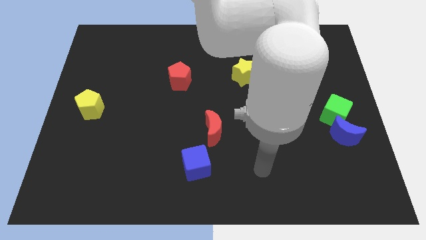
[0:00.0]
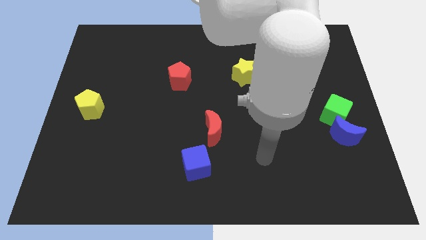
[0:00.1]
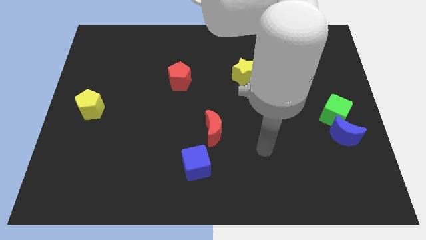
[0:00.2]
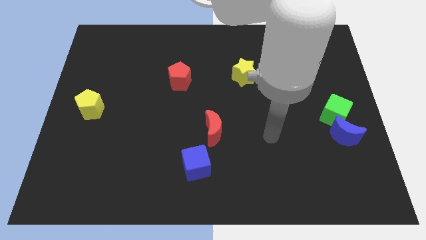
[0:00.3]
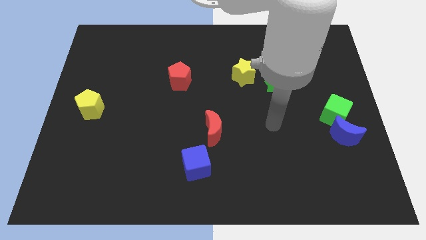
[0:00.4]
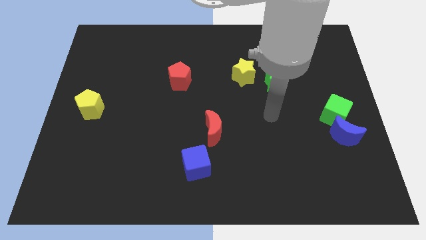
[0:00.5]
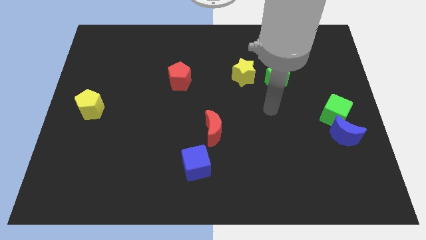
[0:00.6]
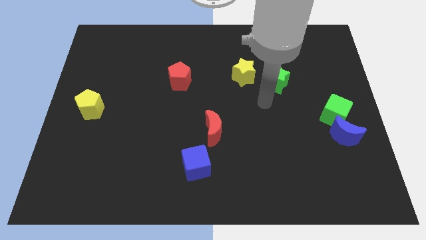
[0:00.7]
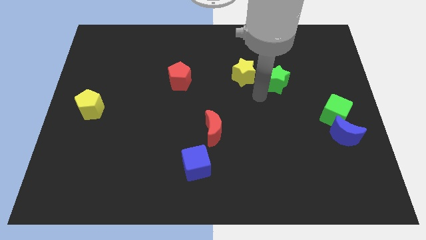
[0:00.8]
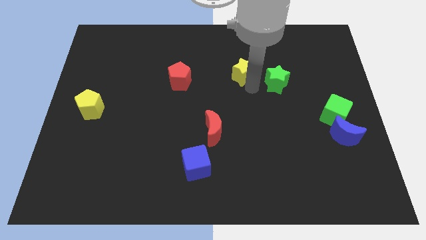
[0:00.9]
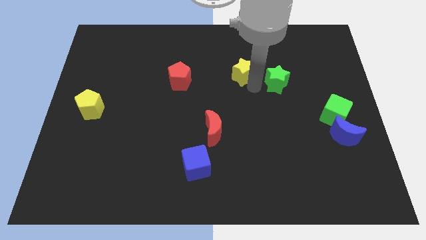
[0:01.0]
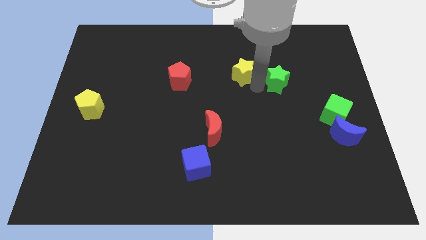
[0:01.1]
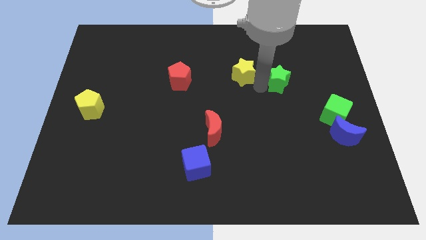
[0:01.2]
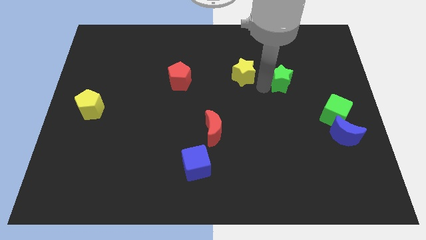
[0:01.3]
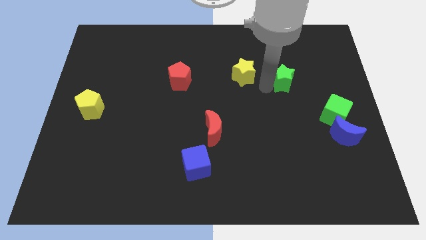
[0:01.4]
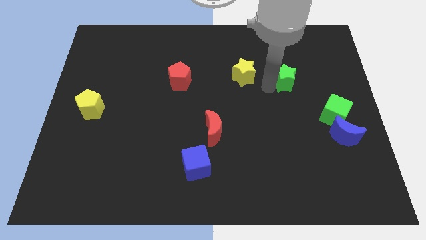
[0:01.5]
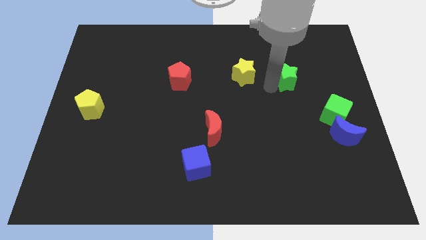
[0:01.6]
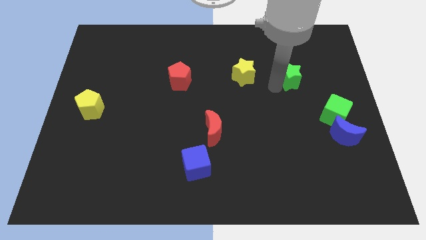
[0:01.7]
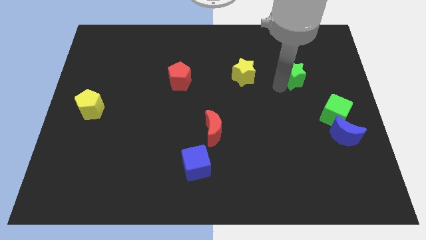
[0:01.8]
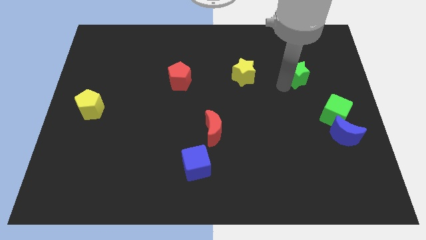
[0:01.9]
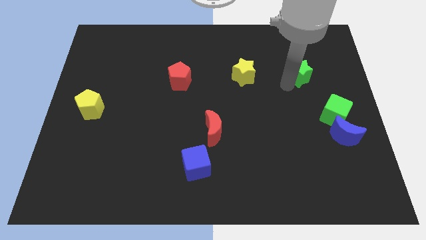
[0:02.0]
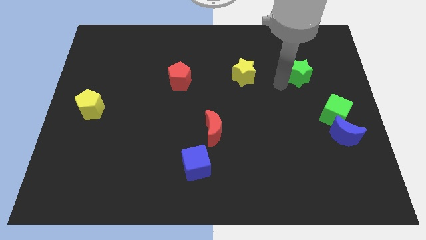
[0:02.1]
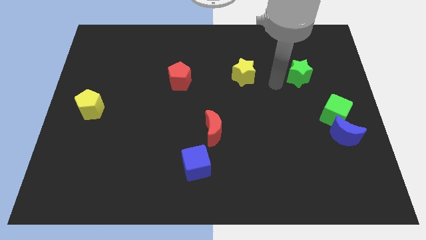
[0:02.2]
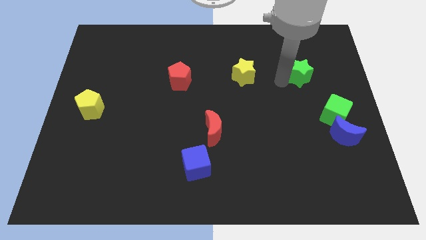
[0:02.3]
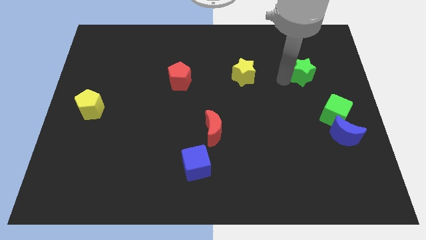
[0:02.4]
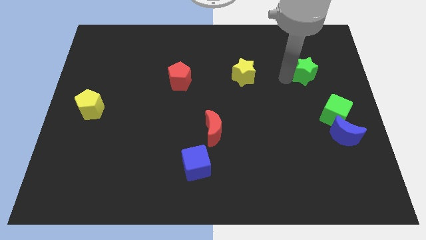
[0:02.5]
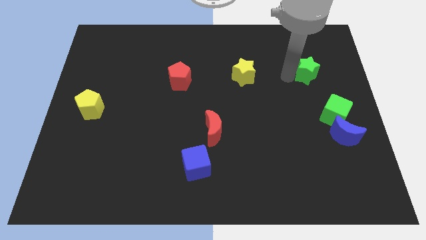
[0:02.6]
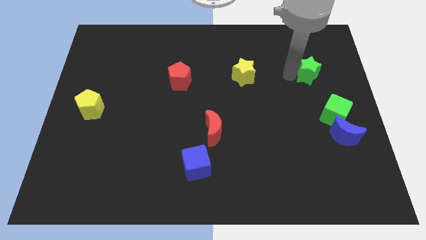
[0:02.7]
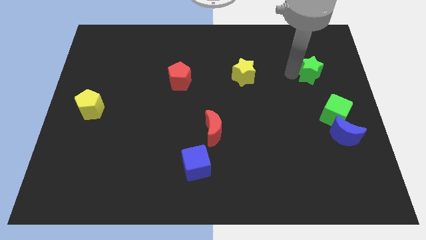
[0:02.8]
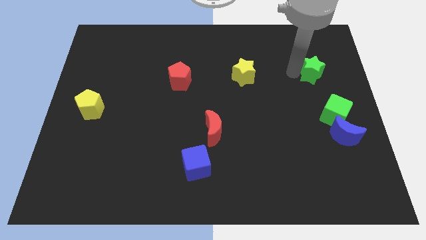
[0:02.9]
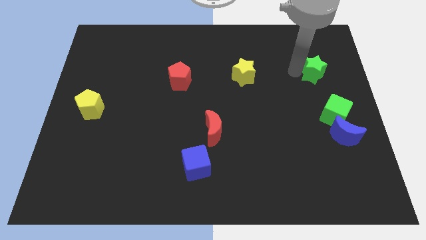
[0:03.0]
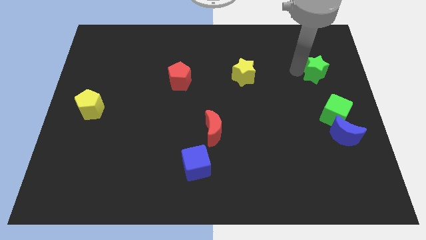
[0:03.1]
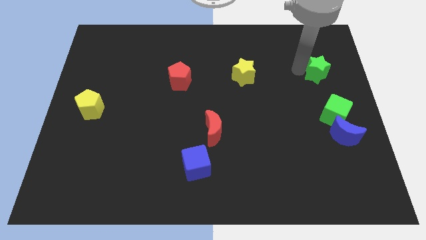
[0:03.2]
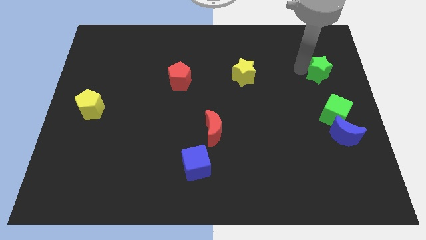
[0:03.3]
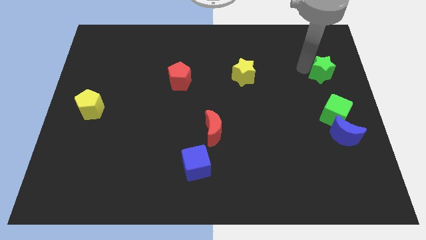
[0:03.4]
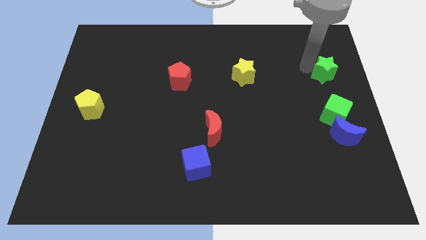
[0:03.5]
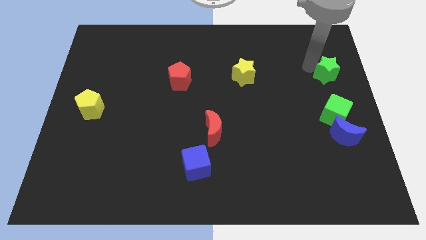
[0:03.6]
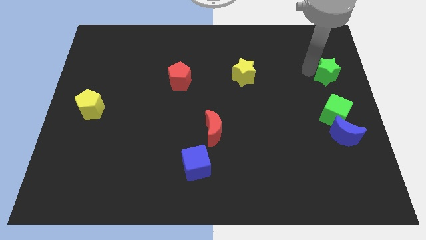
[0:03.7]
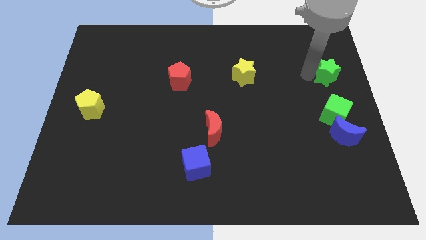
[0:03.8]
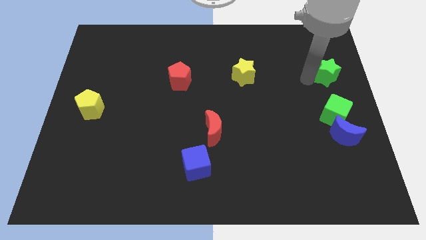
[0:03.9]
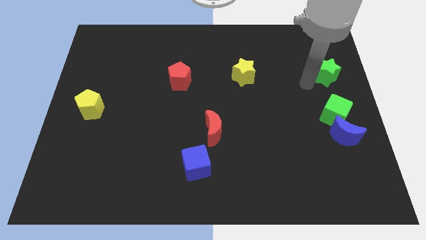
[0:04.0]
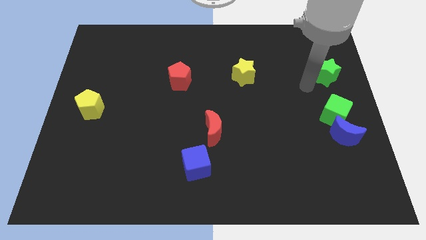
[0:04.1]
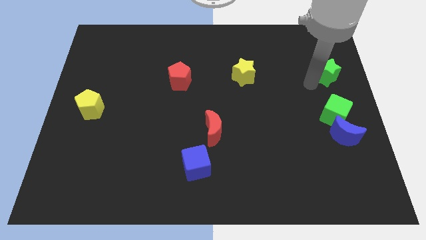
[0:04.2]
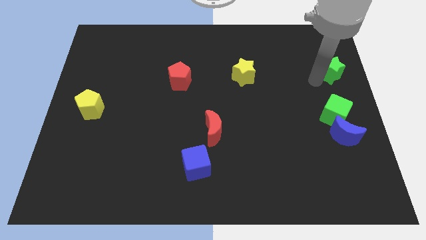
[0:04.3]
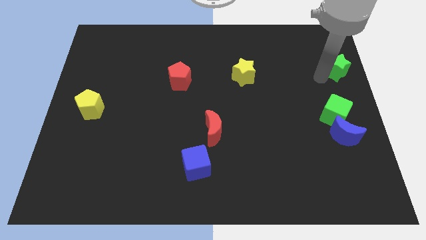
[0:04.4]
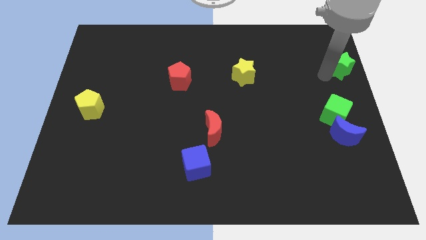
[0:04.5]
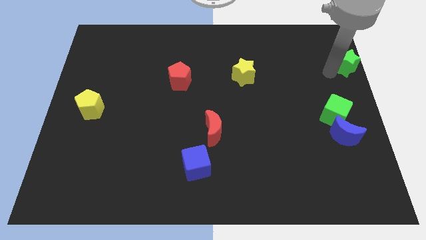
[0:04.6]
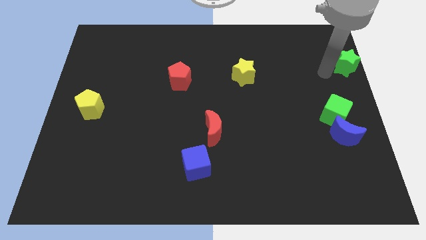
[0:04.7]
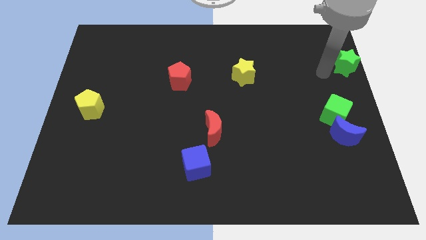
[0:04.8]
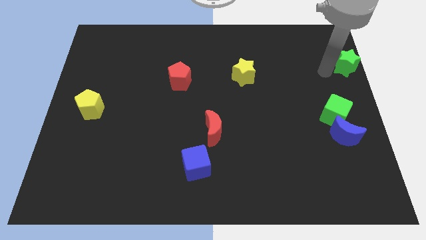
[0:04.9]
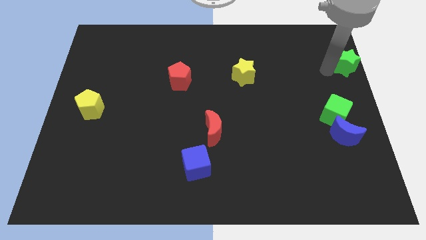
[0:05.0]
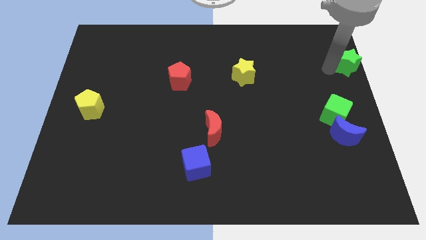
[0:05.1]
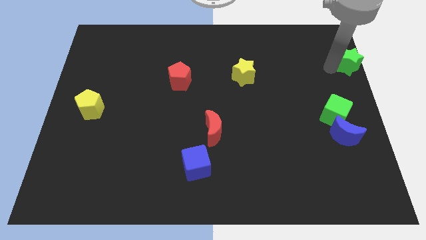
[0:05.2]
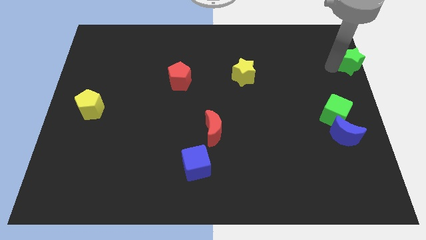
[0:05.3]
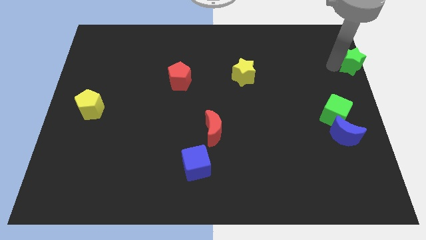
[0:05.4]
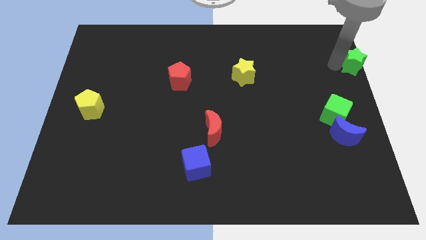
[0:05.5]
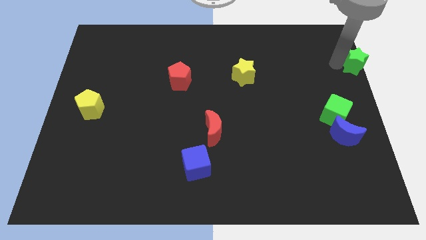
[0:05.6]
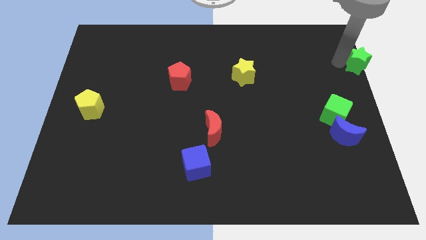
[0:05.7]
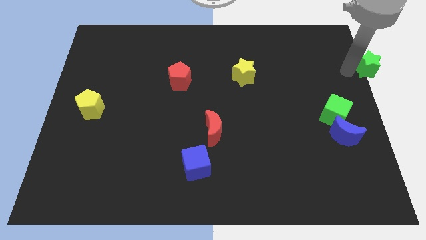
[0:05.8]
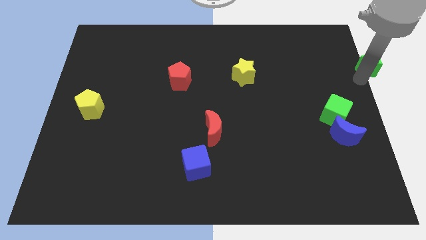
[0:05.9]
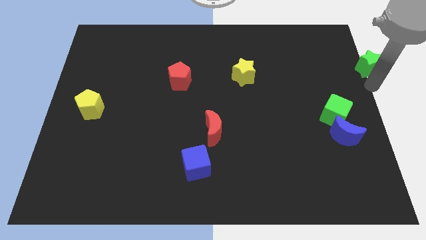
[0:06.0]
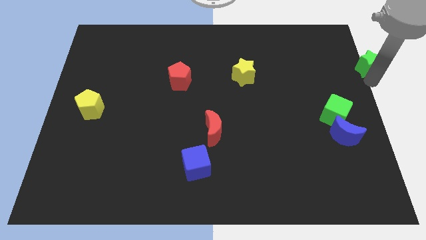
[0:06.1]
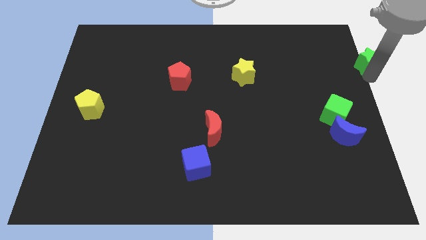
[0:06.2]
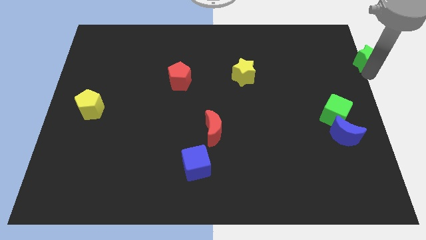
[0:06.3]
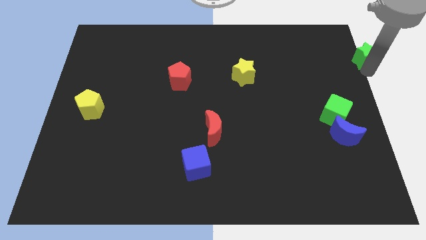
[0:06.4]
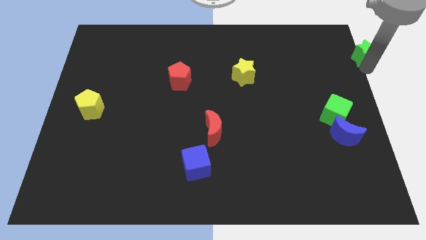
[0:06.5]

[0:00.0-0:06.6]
slide the green star to the top right corner
